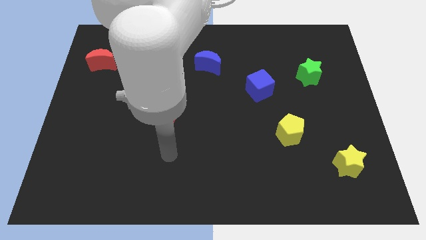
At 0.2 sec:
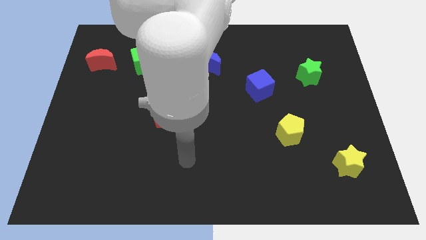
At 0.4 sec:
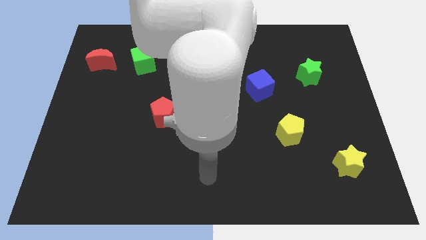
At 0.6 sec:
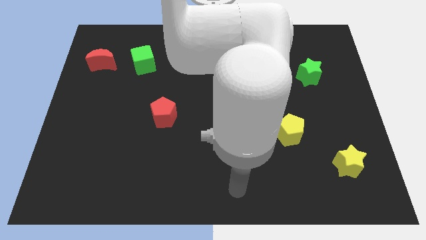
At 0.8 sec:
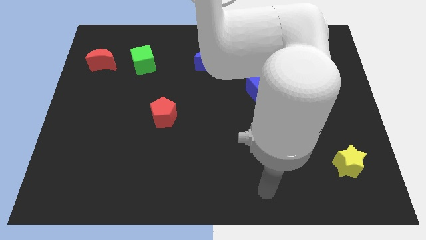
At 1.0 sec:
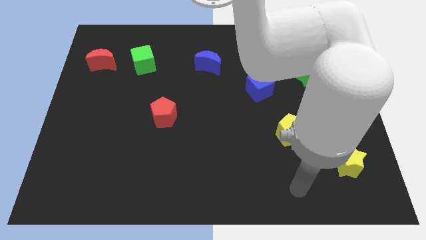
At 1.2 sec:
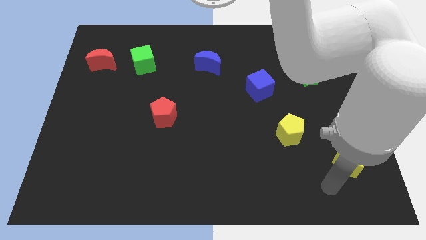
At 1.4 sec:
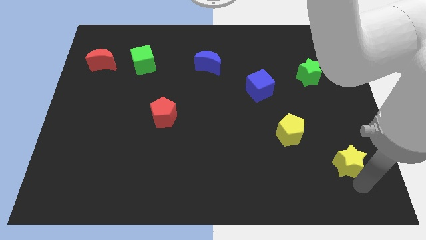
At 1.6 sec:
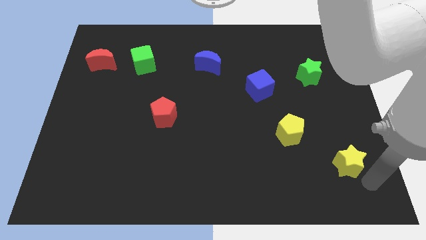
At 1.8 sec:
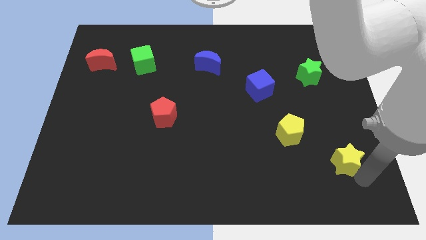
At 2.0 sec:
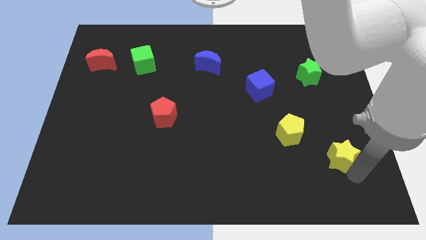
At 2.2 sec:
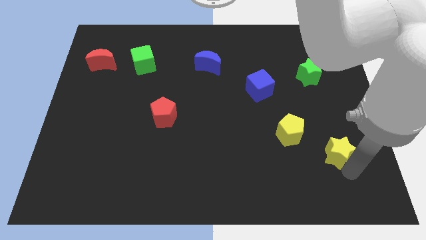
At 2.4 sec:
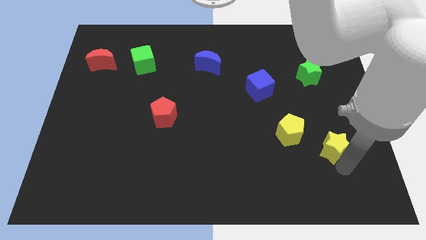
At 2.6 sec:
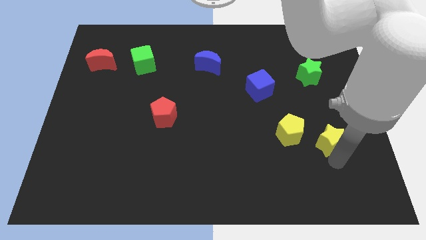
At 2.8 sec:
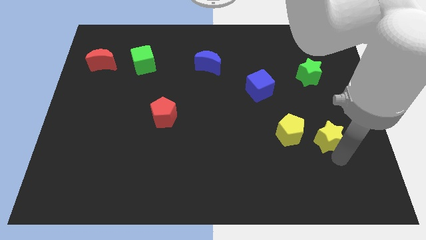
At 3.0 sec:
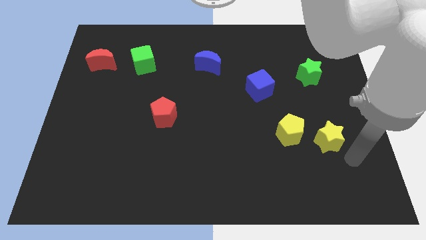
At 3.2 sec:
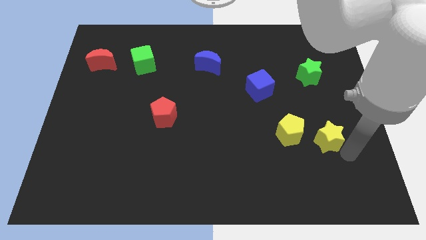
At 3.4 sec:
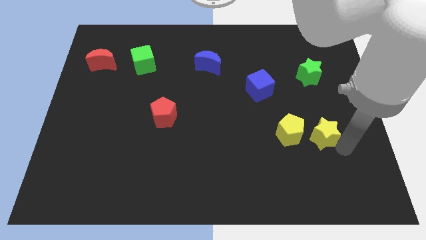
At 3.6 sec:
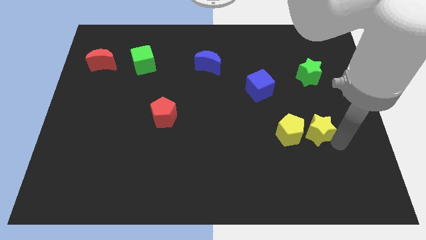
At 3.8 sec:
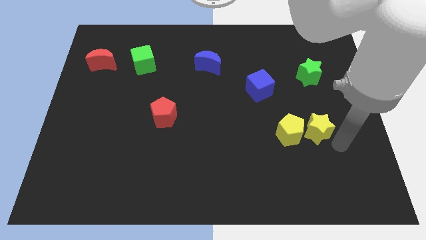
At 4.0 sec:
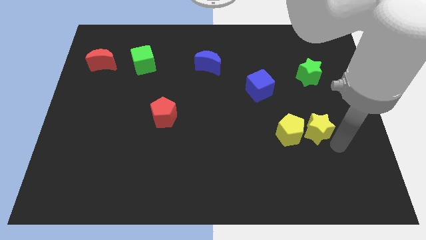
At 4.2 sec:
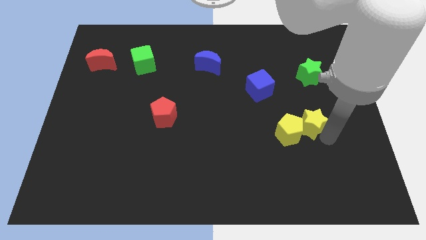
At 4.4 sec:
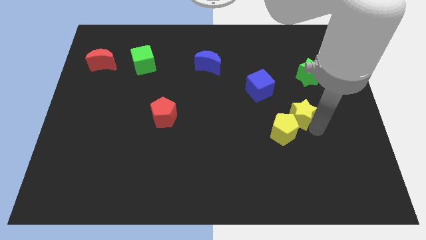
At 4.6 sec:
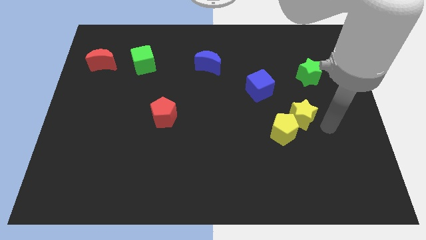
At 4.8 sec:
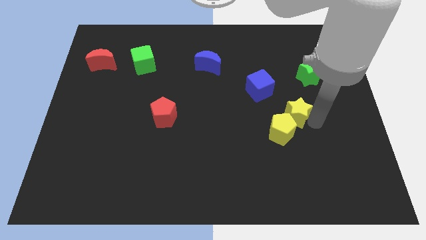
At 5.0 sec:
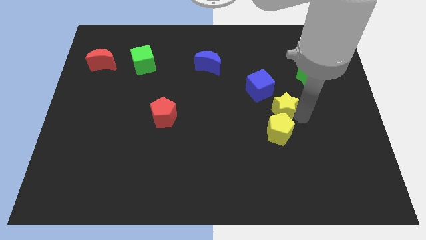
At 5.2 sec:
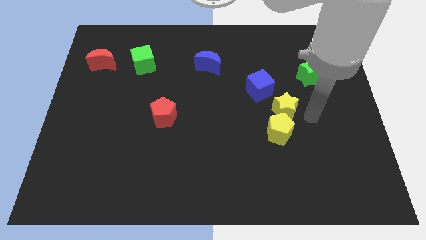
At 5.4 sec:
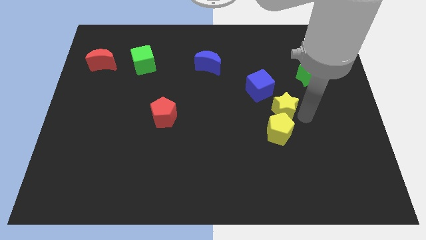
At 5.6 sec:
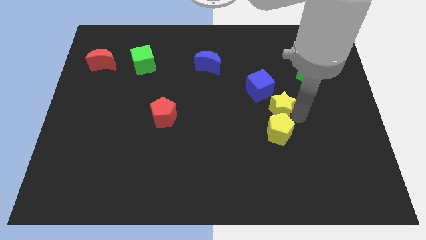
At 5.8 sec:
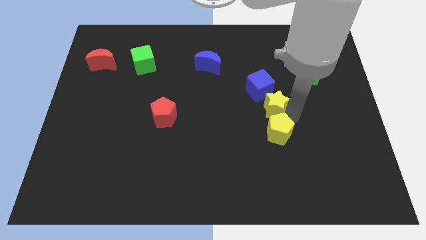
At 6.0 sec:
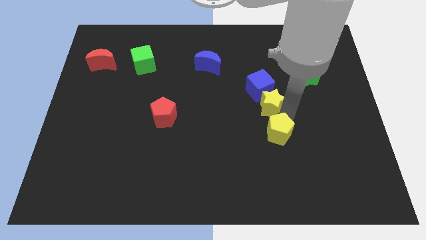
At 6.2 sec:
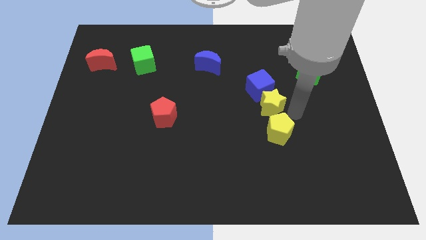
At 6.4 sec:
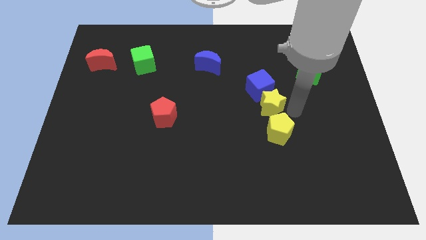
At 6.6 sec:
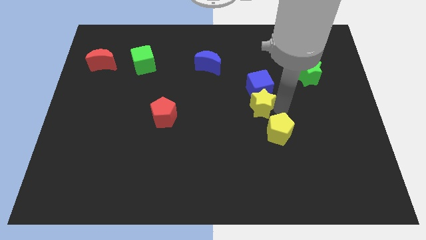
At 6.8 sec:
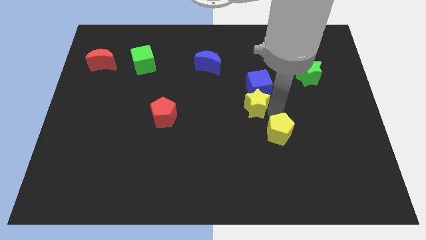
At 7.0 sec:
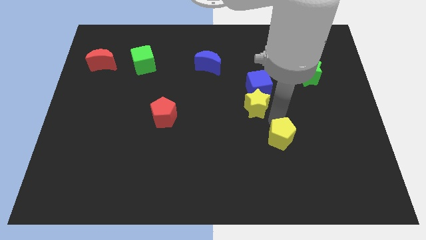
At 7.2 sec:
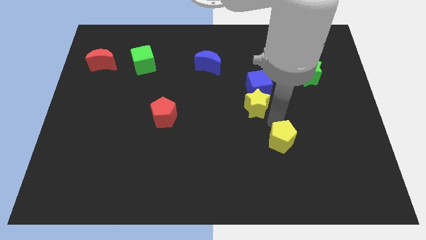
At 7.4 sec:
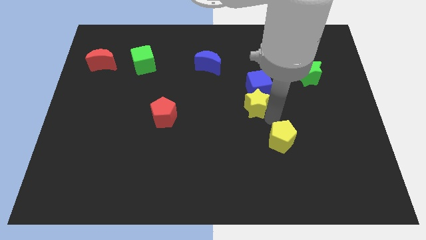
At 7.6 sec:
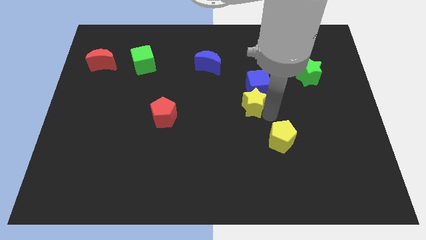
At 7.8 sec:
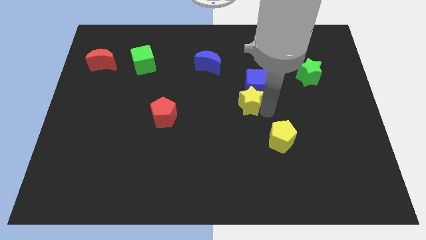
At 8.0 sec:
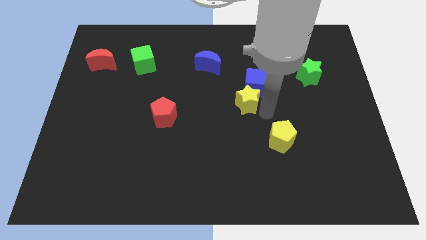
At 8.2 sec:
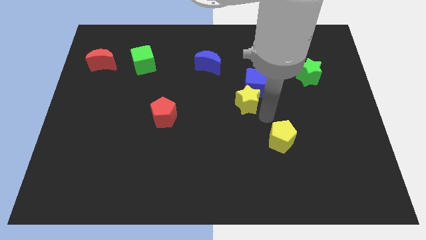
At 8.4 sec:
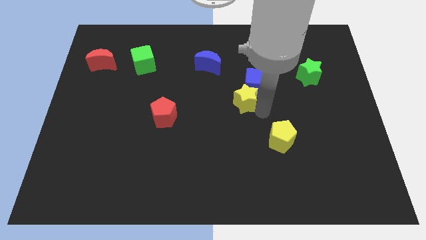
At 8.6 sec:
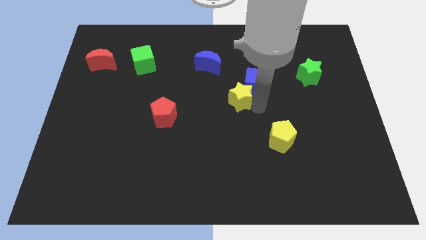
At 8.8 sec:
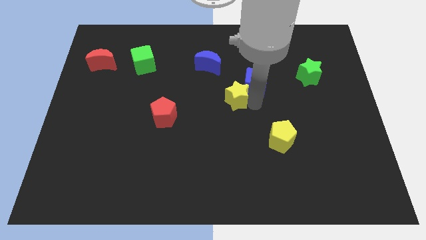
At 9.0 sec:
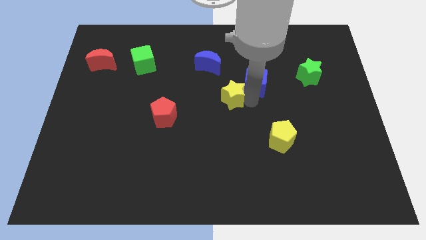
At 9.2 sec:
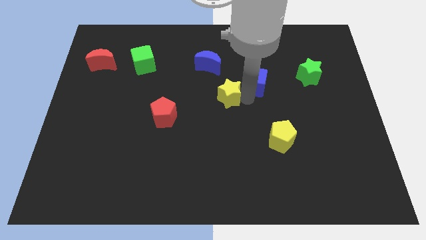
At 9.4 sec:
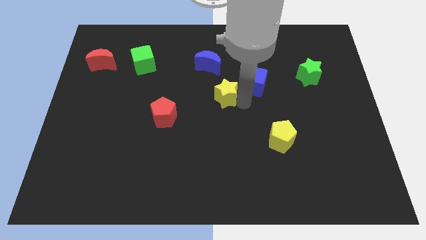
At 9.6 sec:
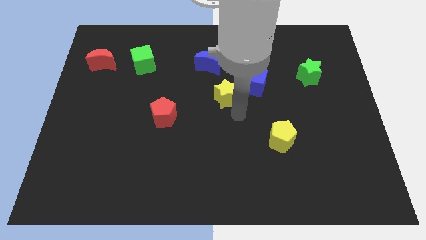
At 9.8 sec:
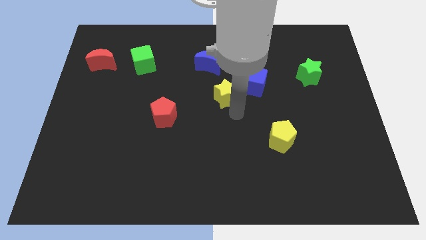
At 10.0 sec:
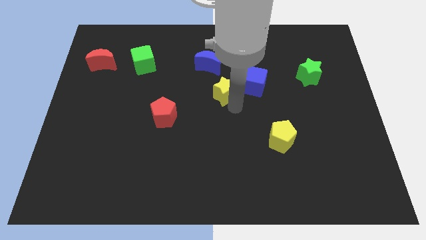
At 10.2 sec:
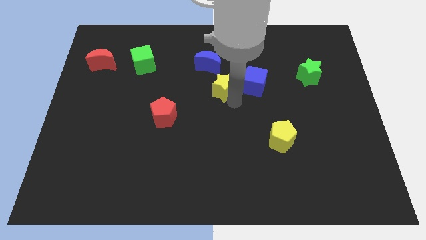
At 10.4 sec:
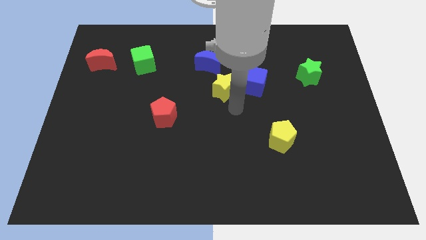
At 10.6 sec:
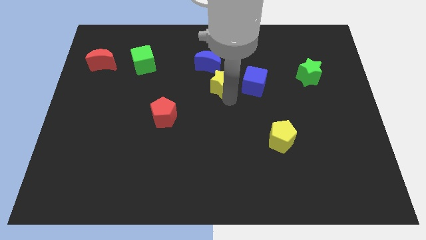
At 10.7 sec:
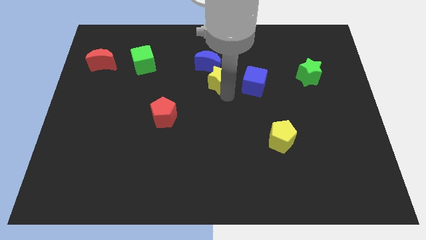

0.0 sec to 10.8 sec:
move the yellow star next to the blue moon

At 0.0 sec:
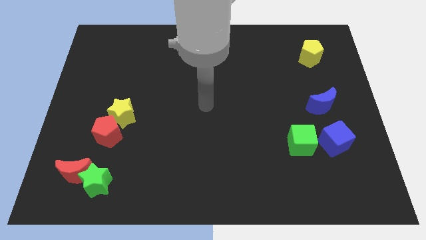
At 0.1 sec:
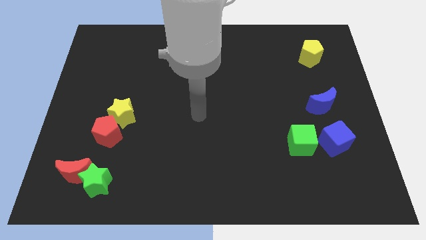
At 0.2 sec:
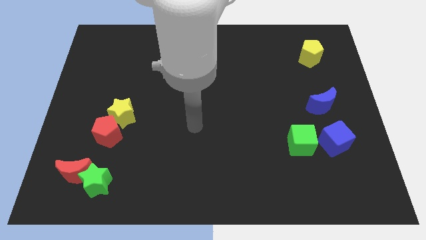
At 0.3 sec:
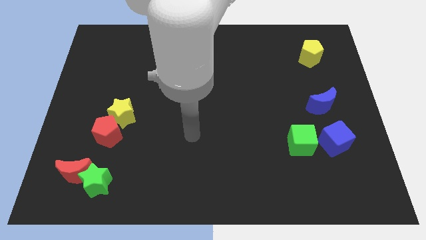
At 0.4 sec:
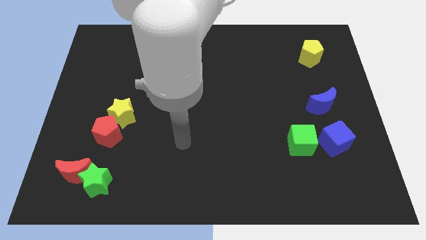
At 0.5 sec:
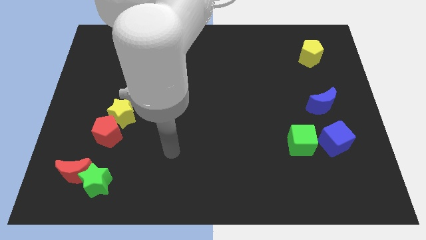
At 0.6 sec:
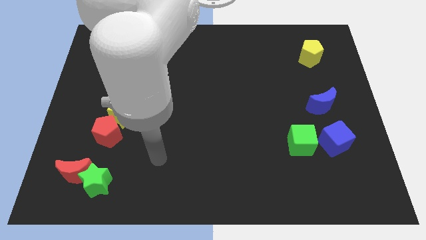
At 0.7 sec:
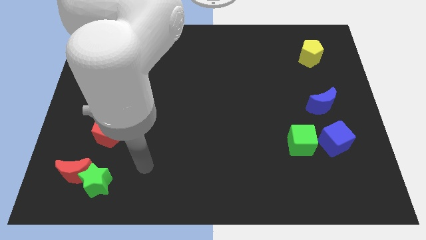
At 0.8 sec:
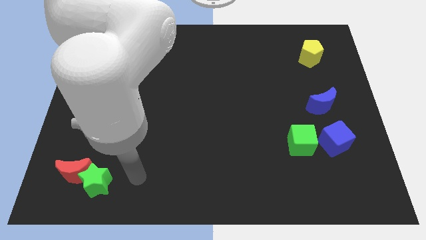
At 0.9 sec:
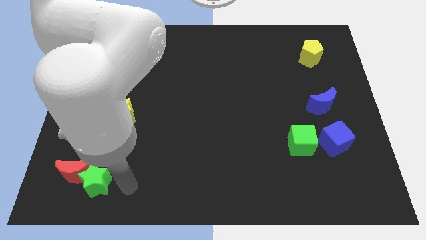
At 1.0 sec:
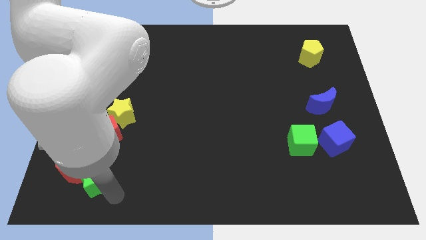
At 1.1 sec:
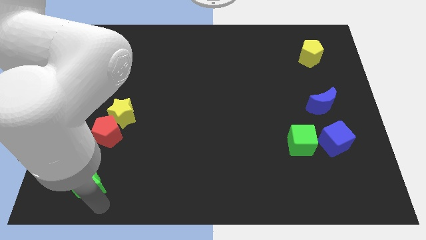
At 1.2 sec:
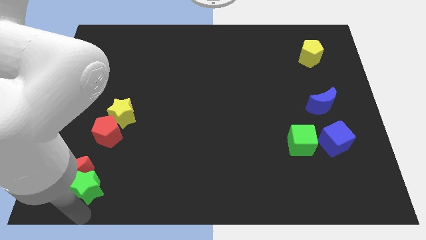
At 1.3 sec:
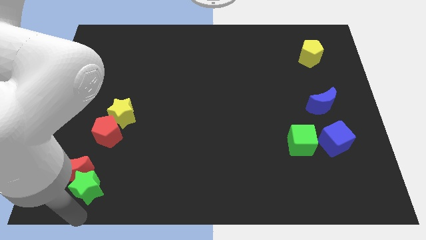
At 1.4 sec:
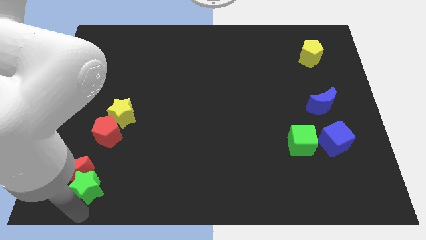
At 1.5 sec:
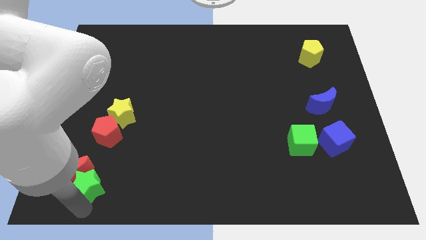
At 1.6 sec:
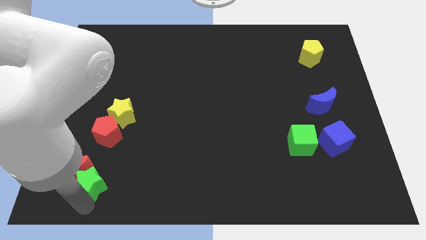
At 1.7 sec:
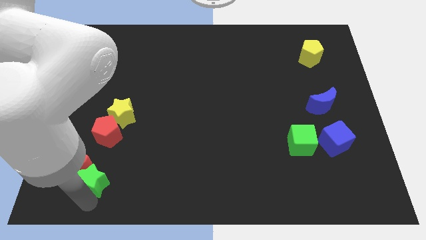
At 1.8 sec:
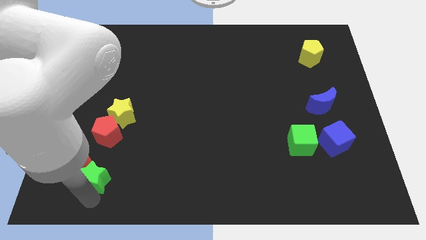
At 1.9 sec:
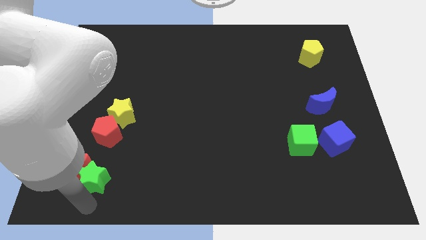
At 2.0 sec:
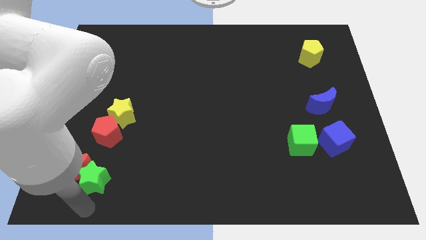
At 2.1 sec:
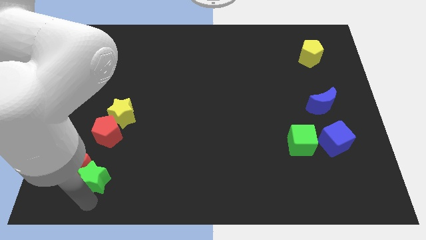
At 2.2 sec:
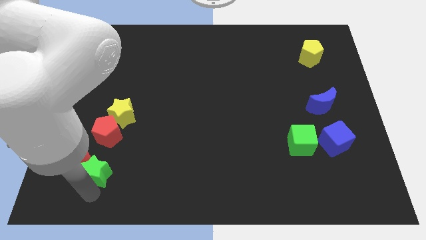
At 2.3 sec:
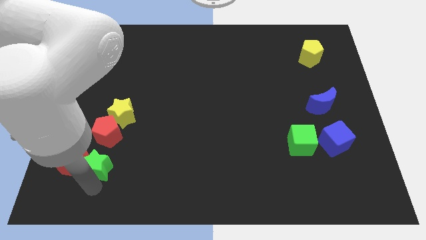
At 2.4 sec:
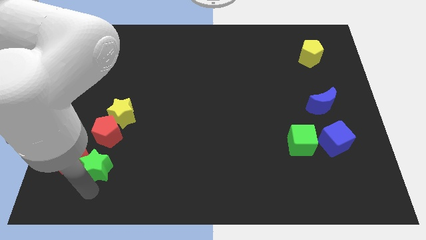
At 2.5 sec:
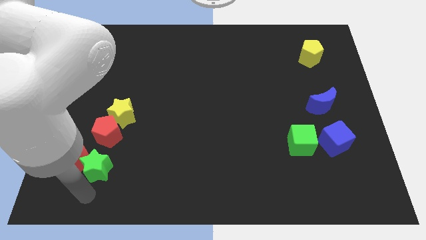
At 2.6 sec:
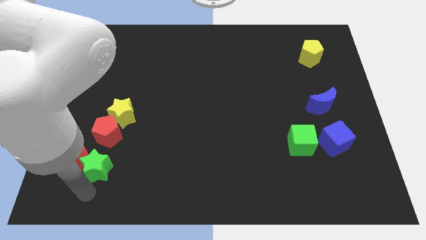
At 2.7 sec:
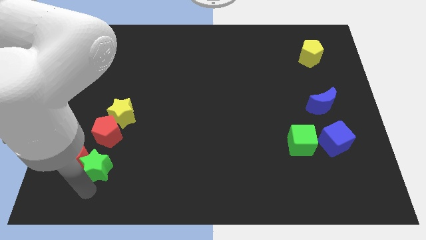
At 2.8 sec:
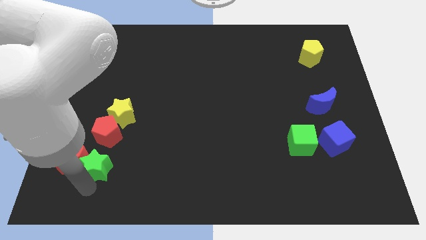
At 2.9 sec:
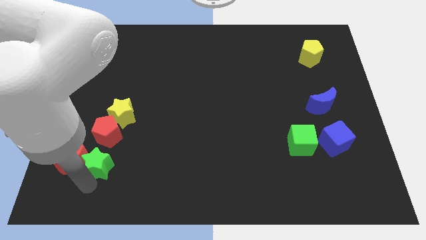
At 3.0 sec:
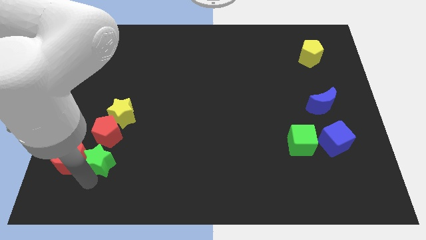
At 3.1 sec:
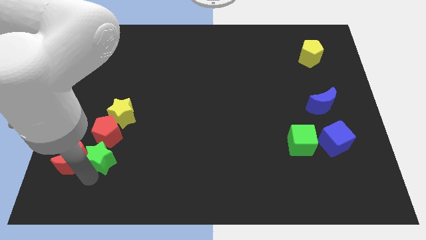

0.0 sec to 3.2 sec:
push the green star close to the red pentagon
